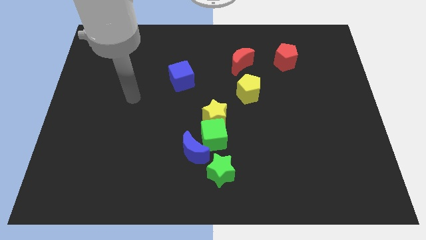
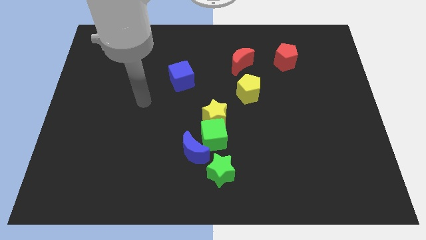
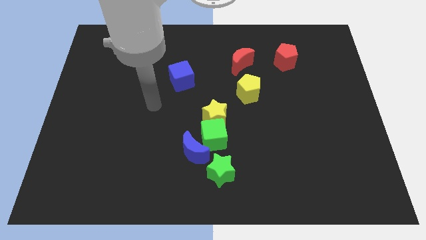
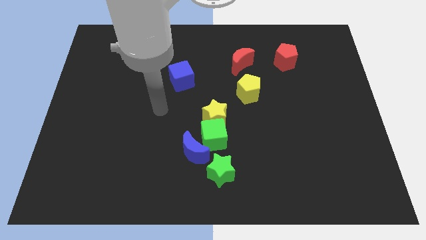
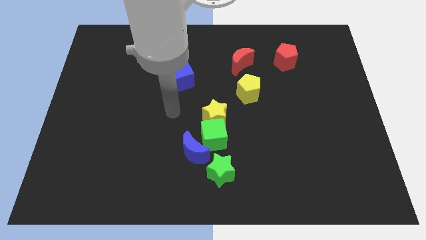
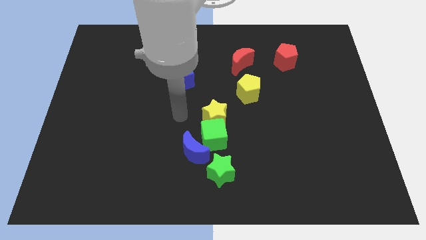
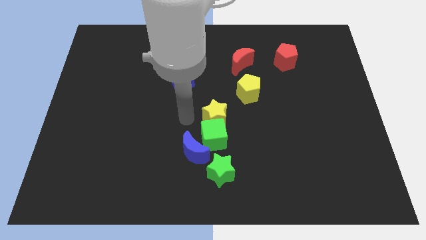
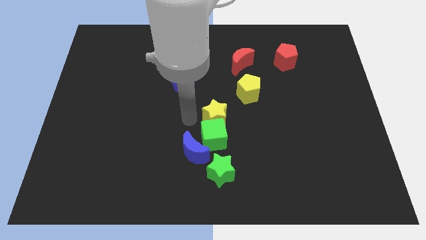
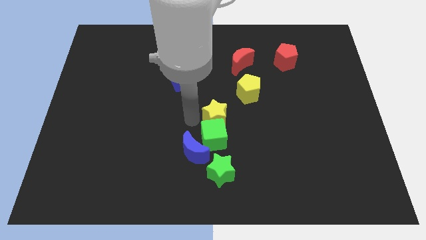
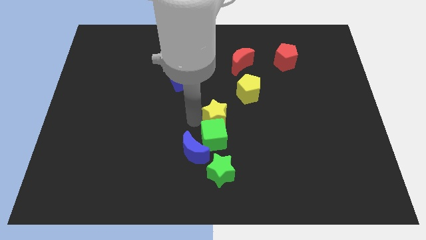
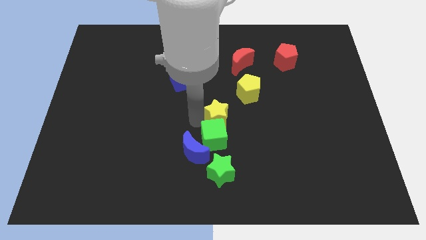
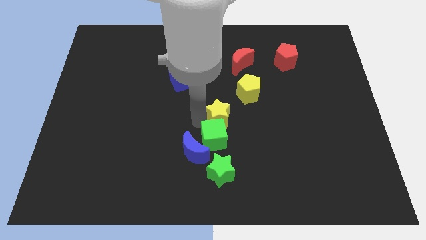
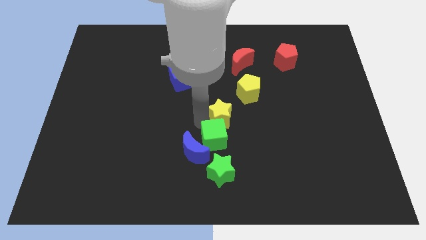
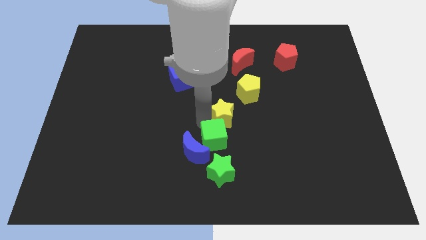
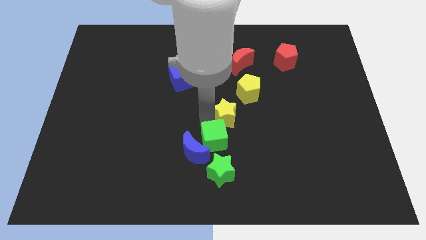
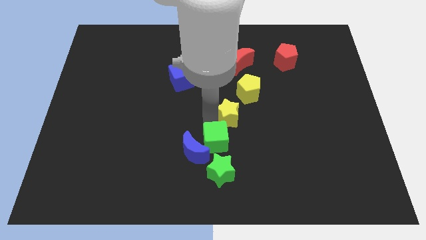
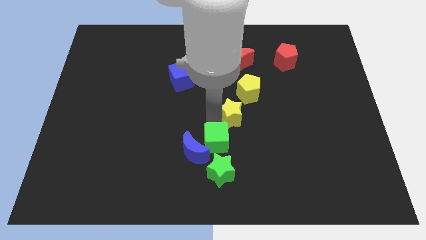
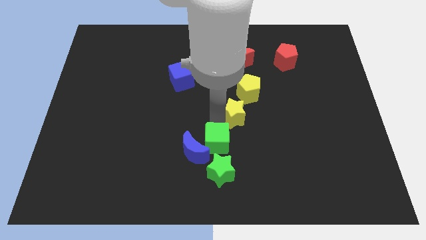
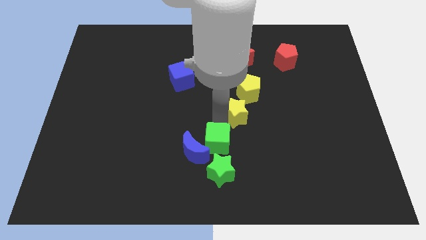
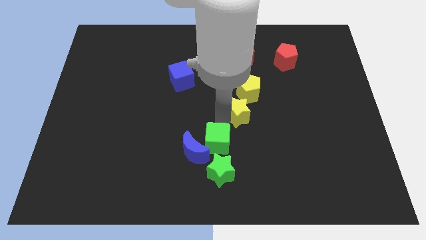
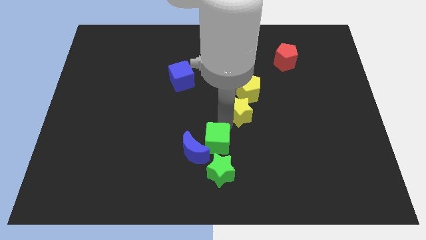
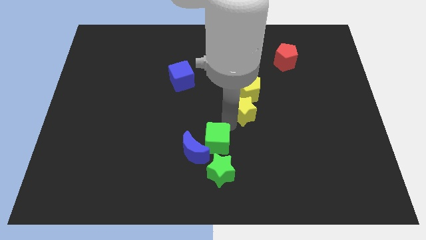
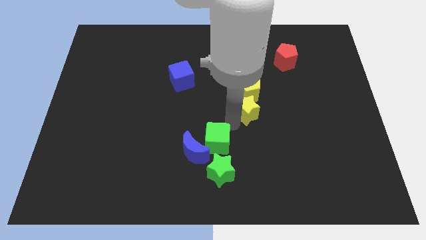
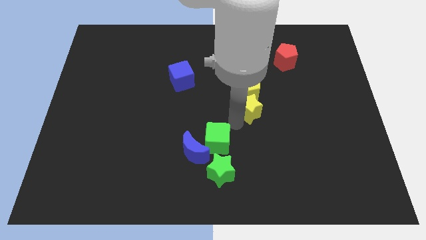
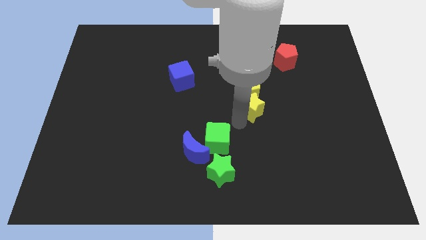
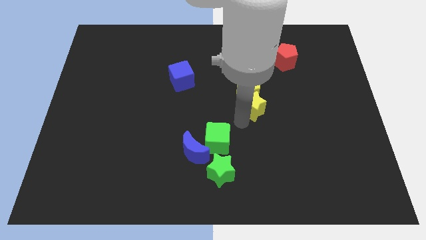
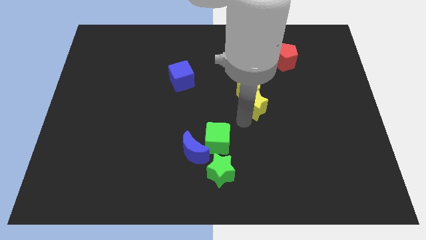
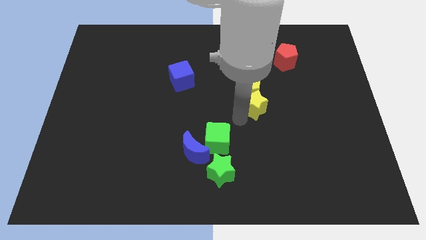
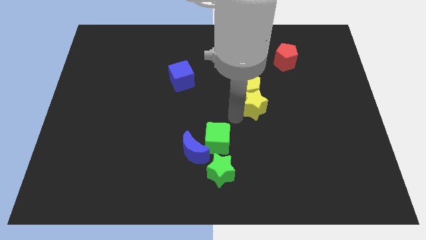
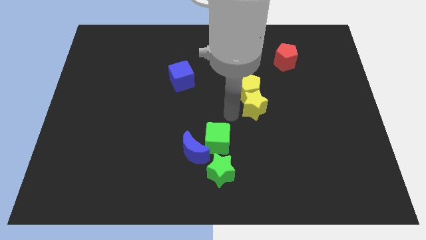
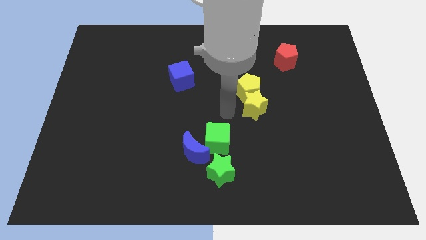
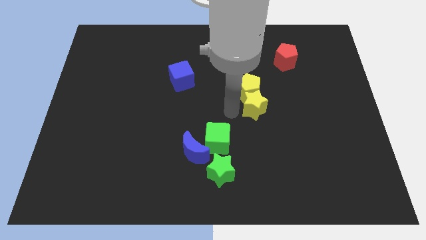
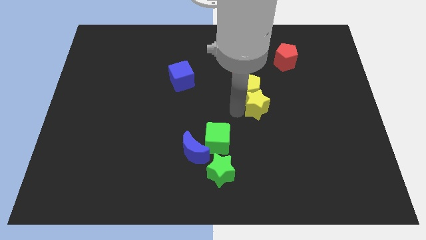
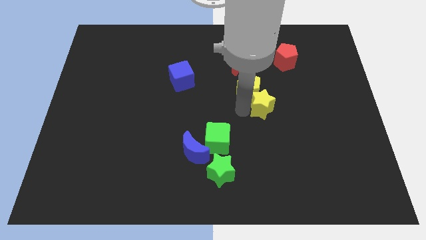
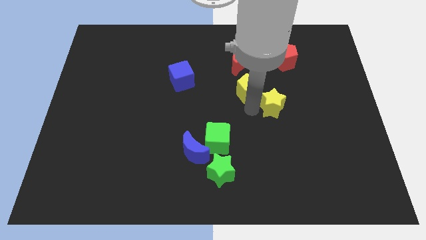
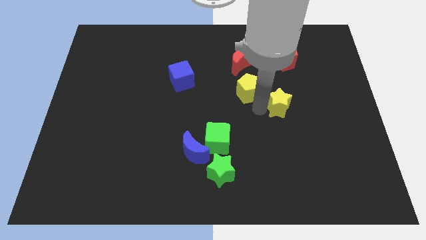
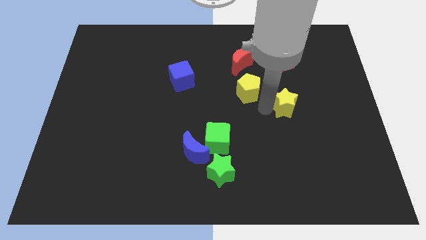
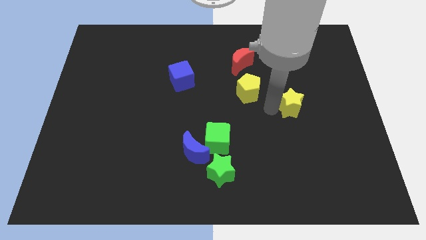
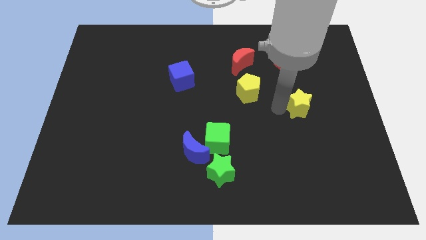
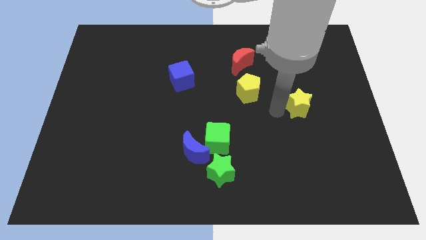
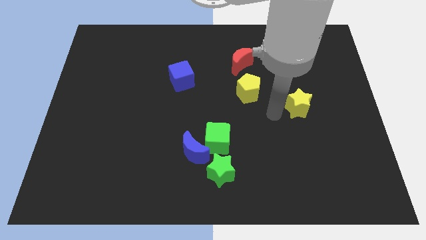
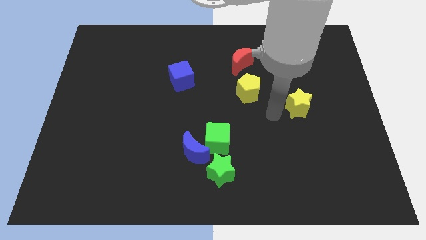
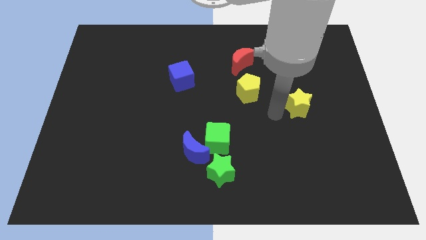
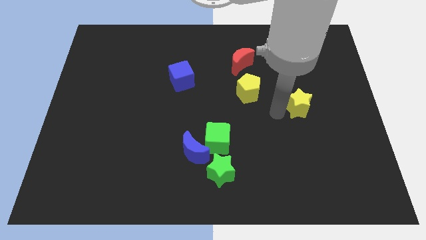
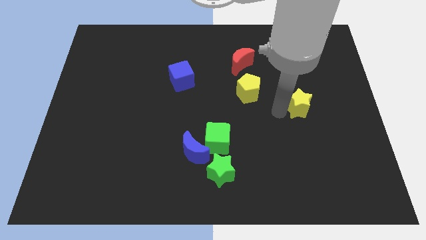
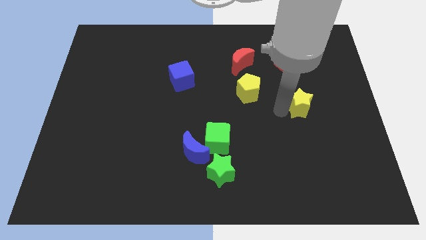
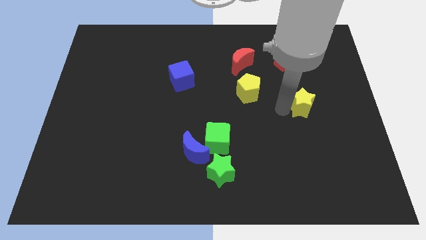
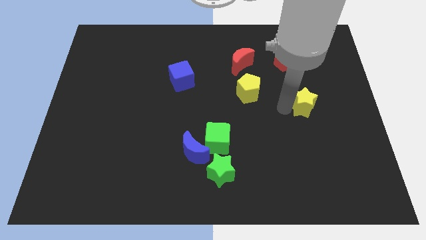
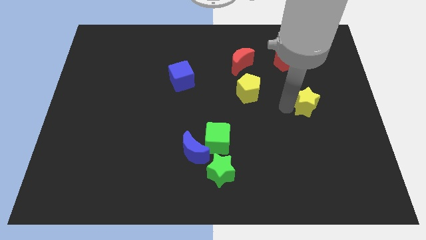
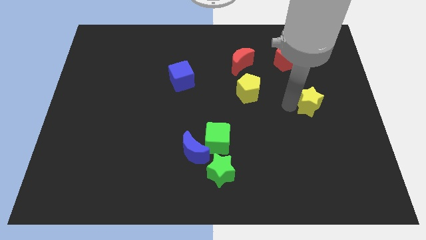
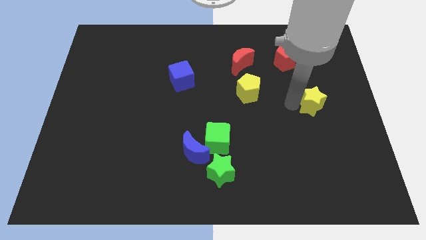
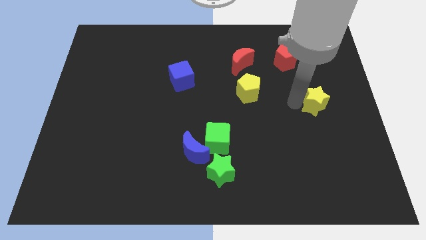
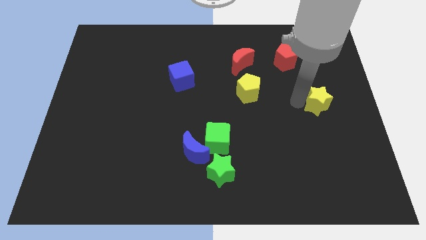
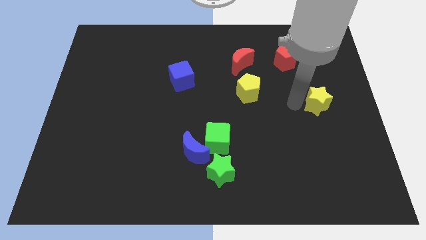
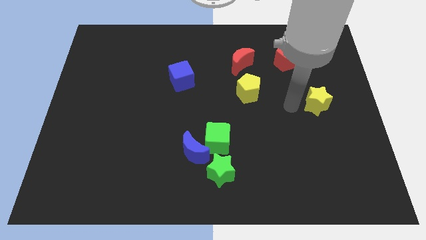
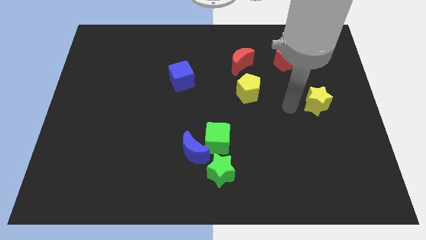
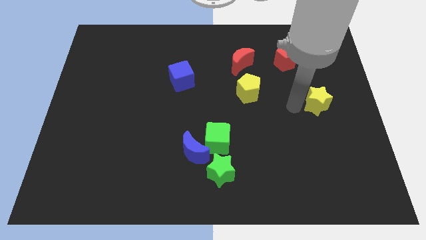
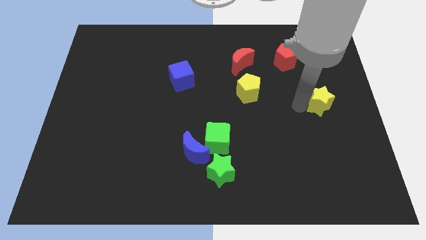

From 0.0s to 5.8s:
put the yellow star to the right side of the board
